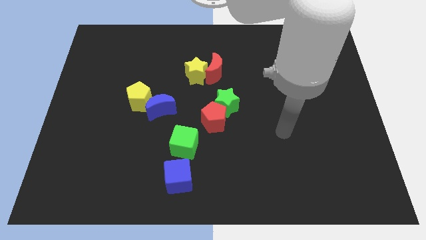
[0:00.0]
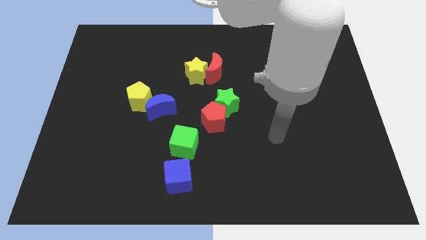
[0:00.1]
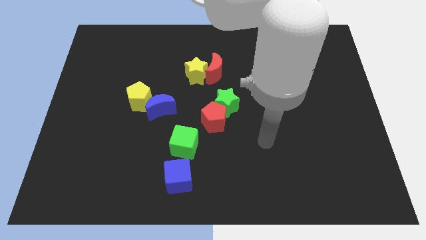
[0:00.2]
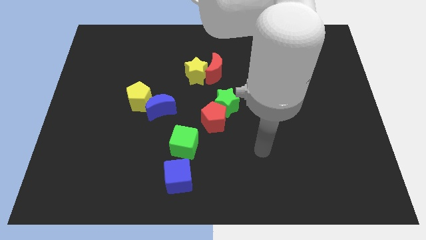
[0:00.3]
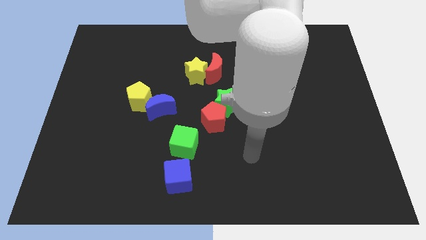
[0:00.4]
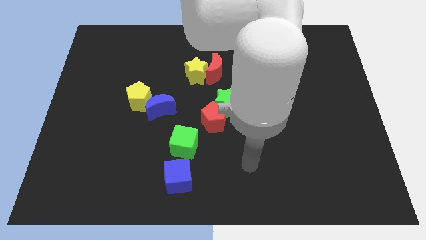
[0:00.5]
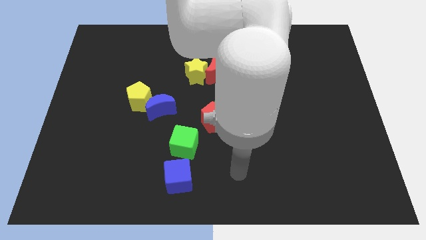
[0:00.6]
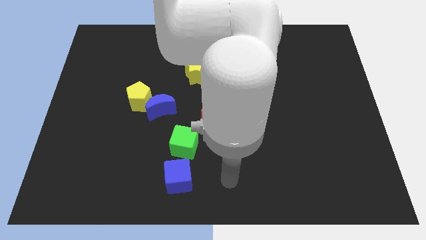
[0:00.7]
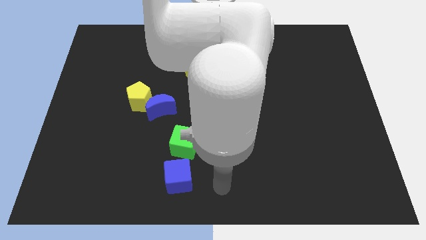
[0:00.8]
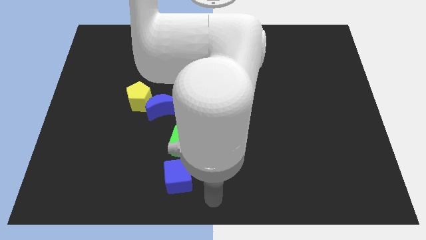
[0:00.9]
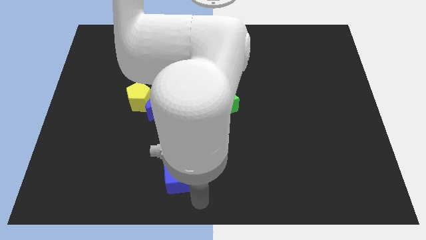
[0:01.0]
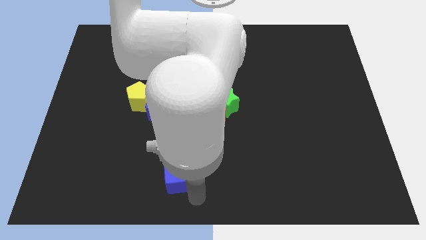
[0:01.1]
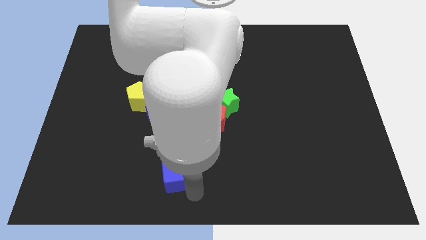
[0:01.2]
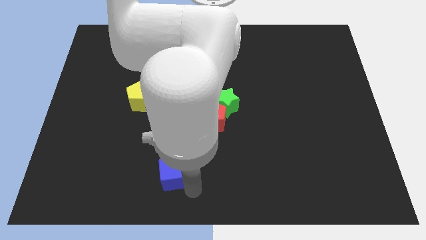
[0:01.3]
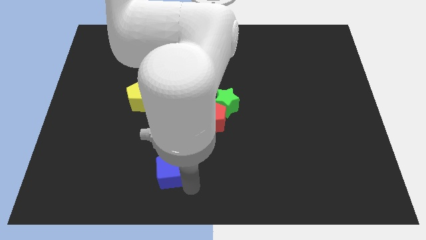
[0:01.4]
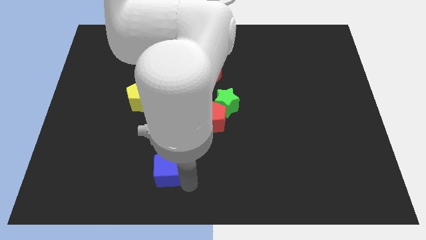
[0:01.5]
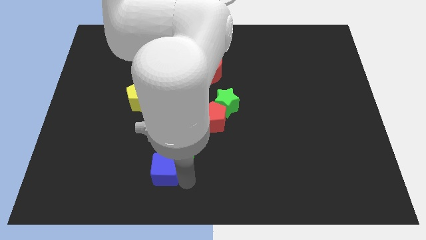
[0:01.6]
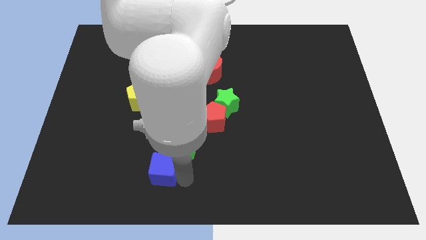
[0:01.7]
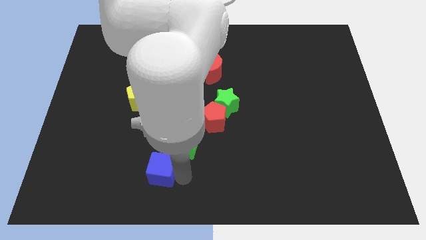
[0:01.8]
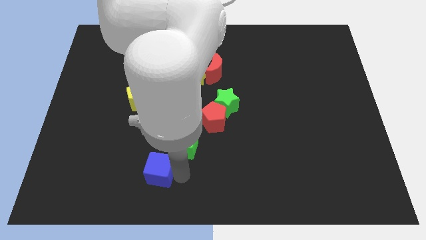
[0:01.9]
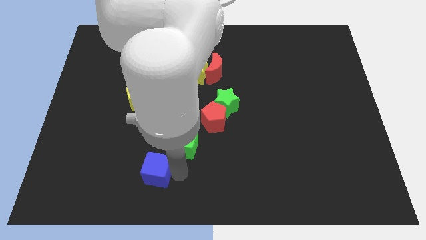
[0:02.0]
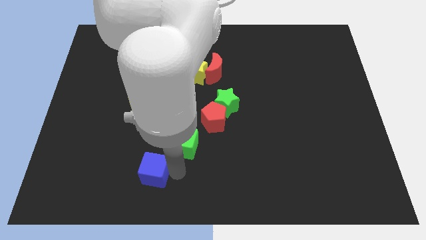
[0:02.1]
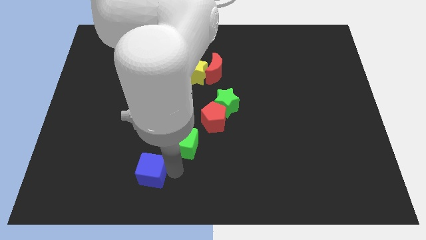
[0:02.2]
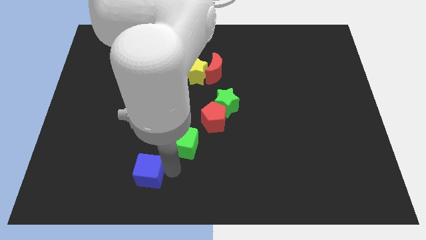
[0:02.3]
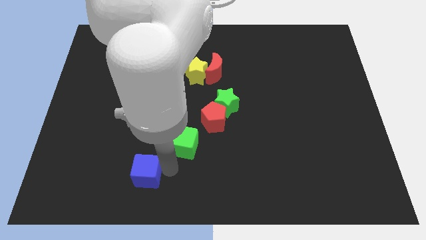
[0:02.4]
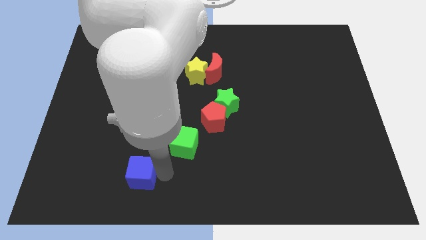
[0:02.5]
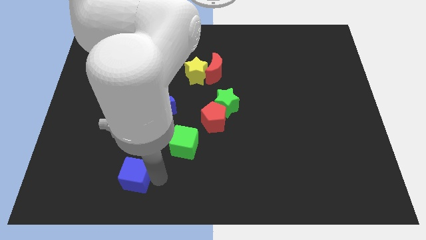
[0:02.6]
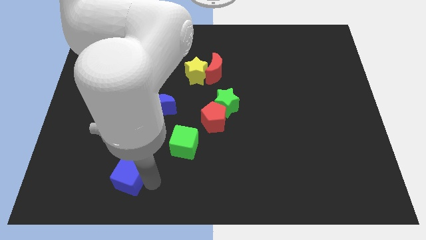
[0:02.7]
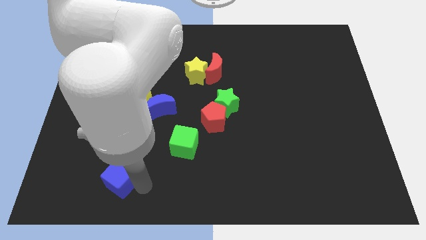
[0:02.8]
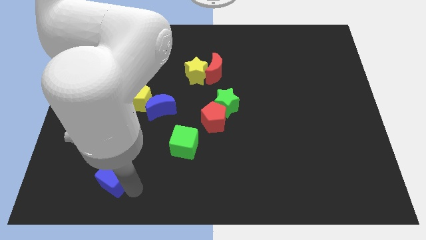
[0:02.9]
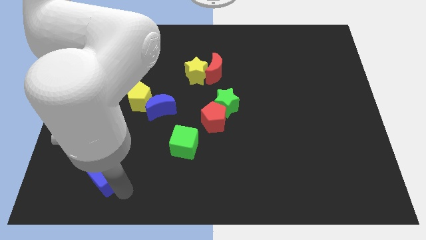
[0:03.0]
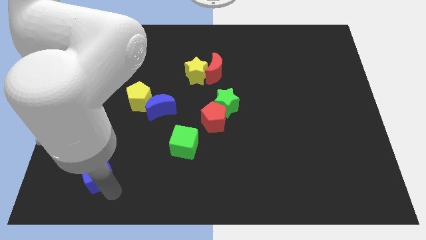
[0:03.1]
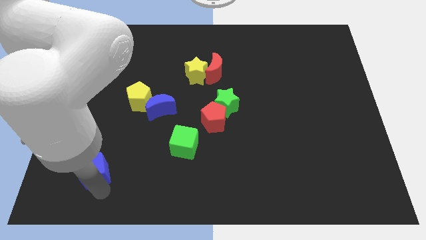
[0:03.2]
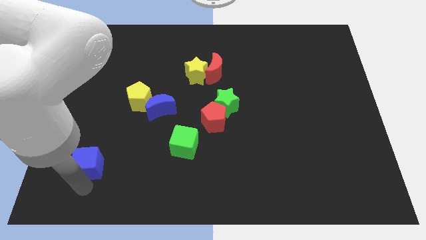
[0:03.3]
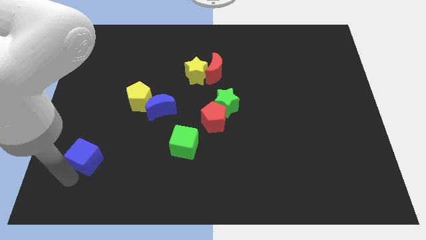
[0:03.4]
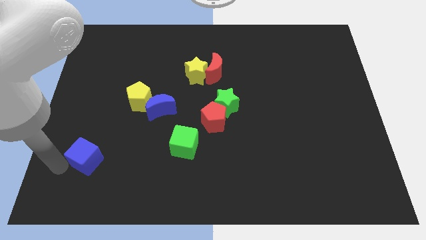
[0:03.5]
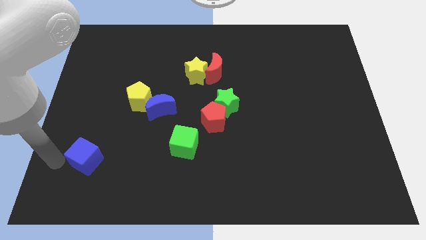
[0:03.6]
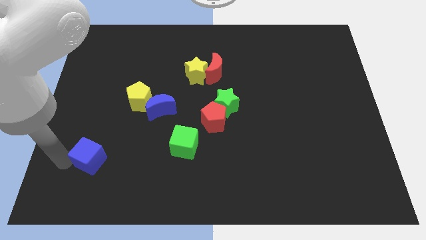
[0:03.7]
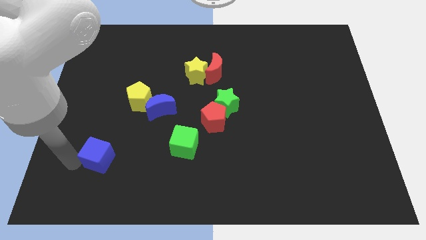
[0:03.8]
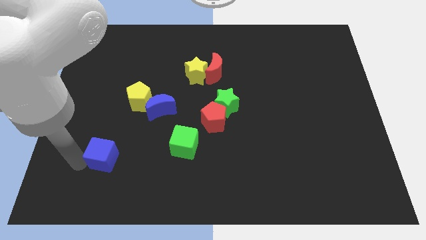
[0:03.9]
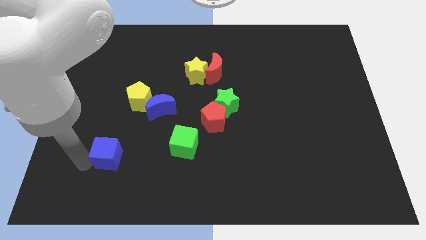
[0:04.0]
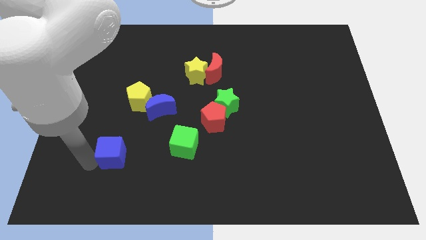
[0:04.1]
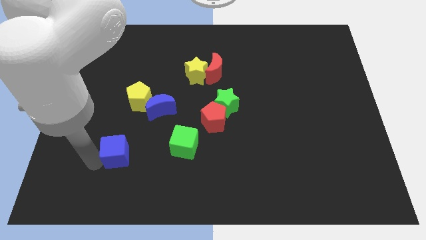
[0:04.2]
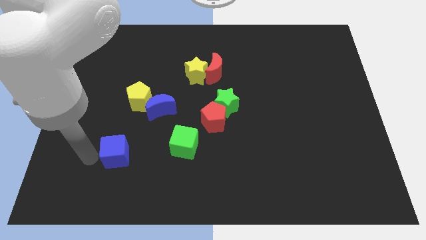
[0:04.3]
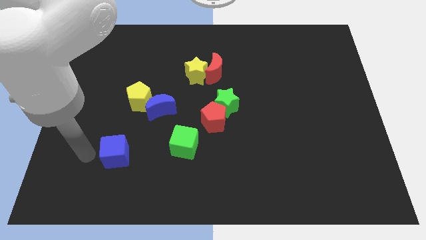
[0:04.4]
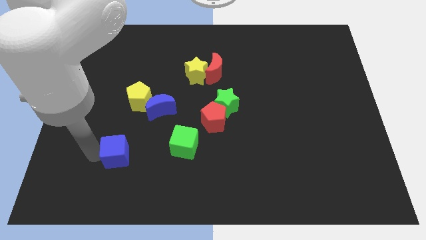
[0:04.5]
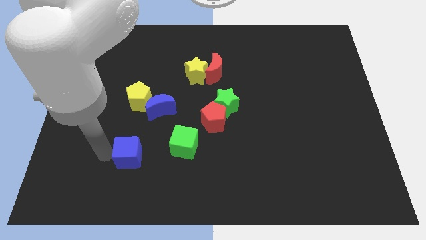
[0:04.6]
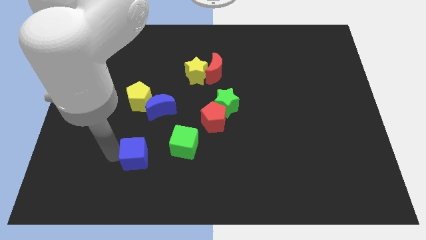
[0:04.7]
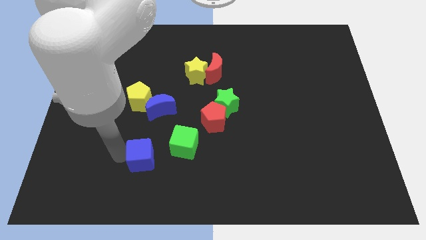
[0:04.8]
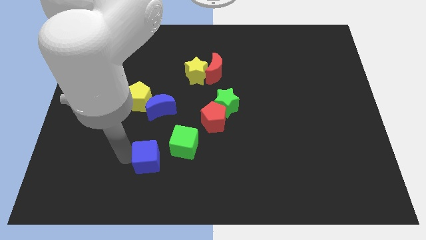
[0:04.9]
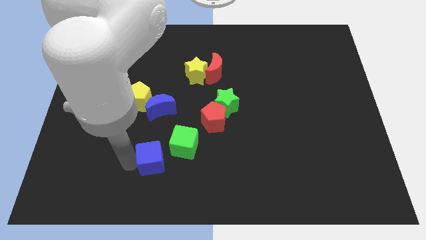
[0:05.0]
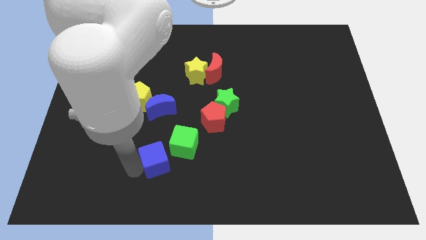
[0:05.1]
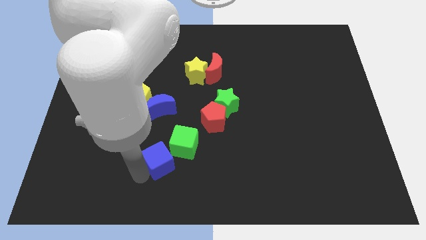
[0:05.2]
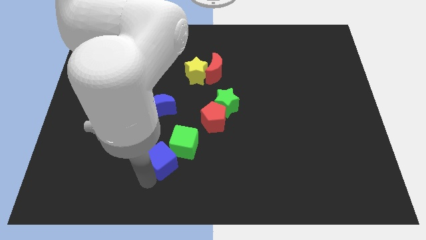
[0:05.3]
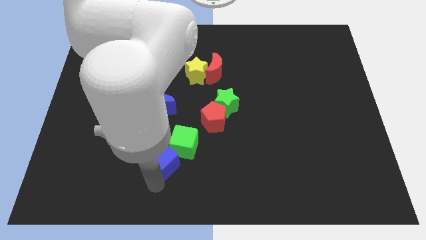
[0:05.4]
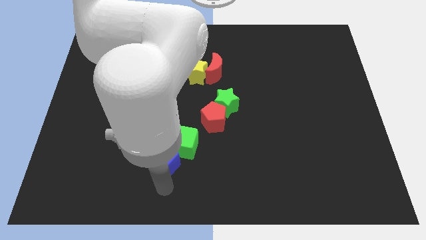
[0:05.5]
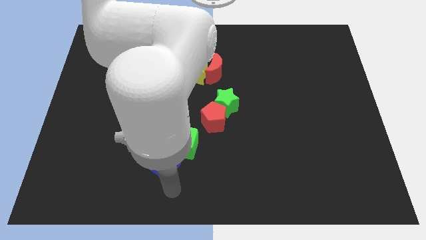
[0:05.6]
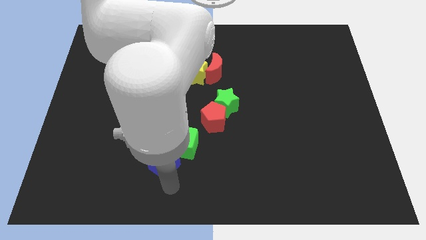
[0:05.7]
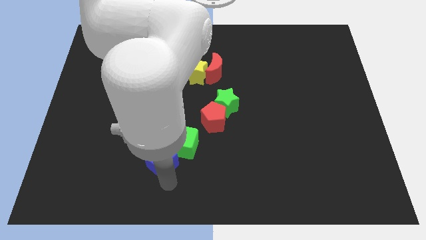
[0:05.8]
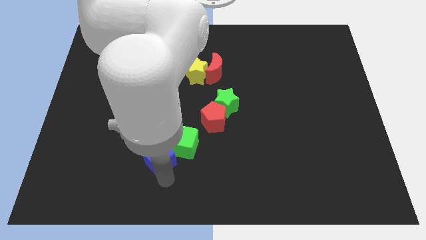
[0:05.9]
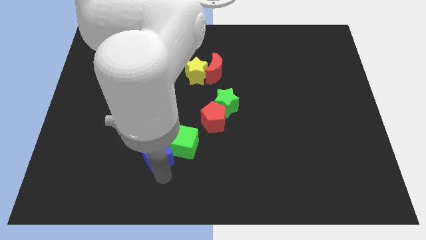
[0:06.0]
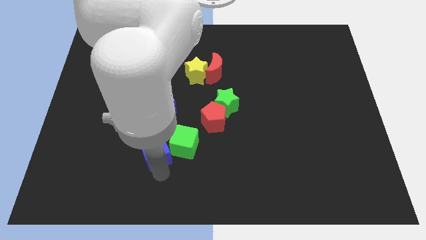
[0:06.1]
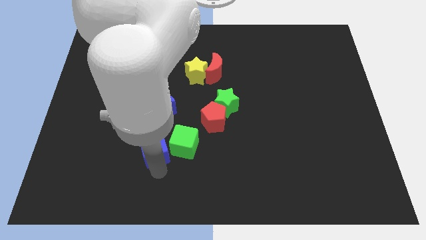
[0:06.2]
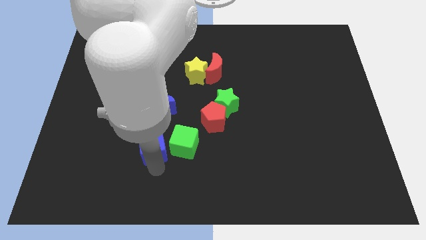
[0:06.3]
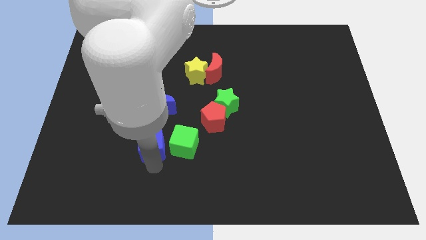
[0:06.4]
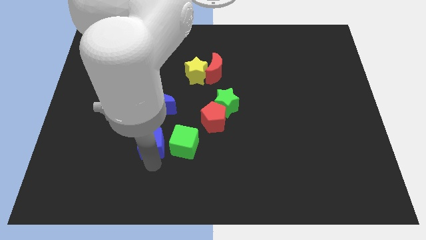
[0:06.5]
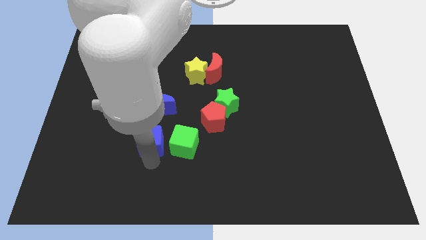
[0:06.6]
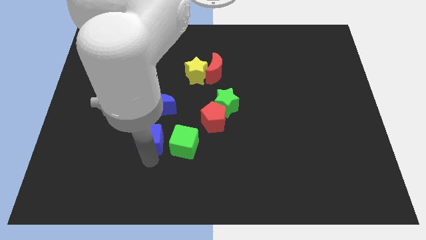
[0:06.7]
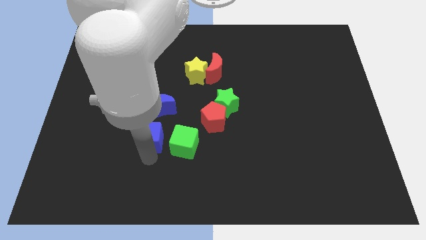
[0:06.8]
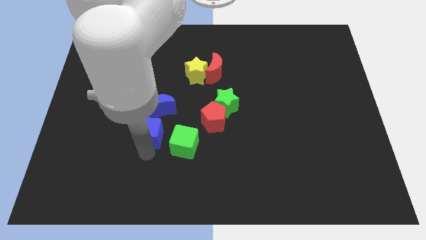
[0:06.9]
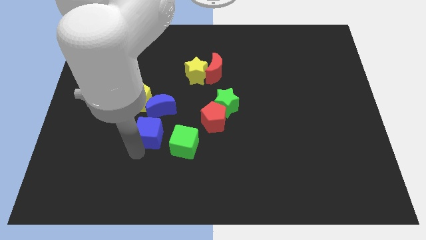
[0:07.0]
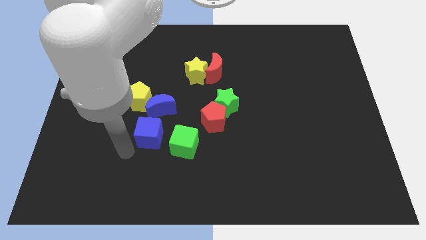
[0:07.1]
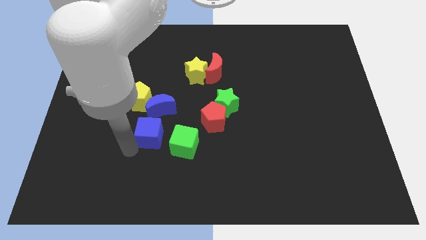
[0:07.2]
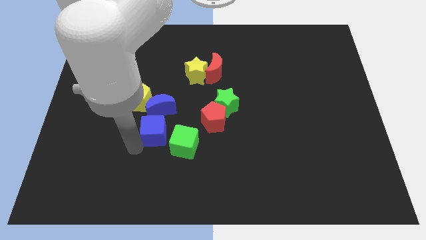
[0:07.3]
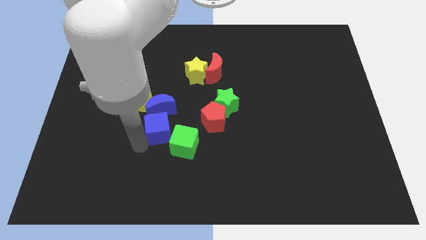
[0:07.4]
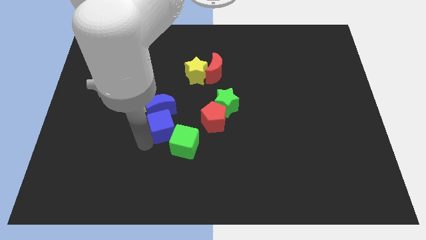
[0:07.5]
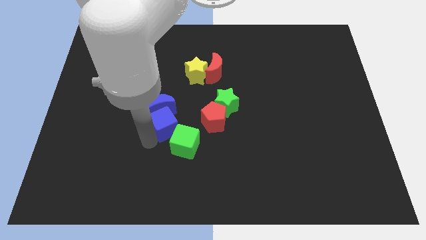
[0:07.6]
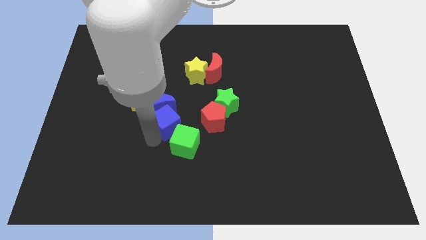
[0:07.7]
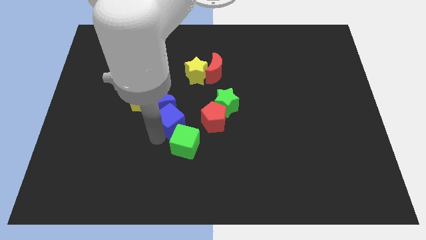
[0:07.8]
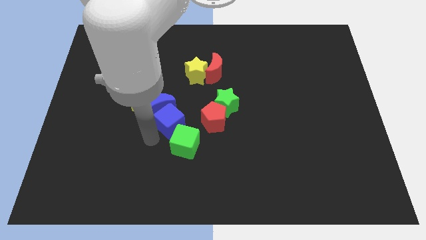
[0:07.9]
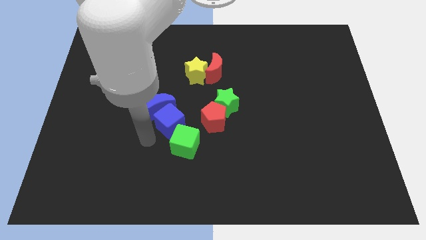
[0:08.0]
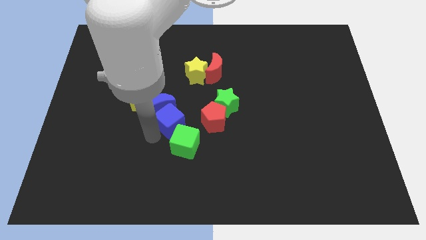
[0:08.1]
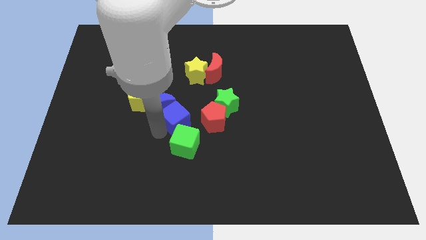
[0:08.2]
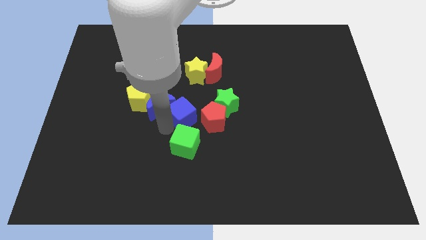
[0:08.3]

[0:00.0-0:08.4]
put the blue cube below the yellow star
